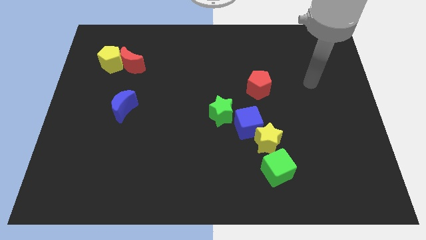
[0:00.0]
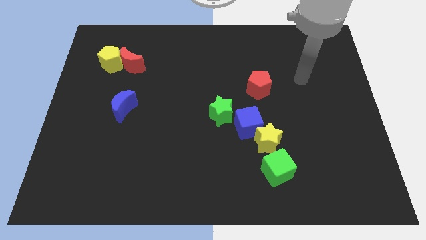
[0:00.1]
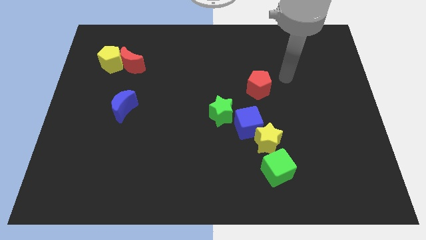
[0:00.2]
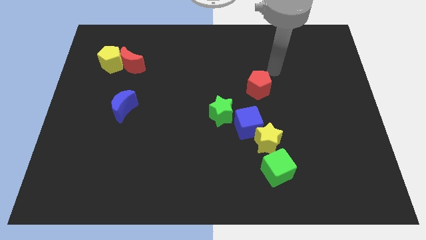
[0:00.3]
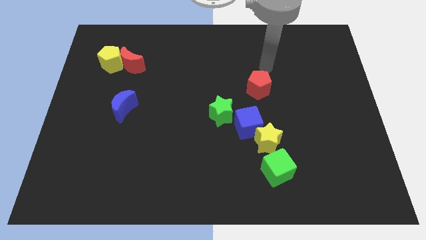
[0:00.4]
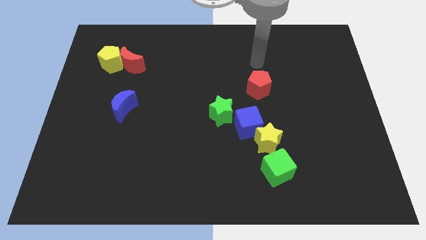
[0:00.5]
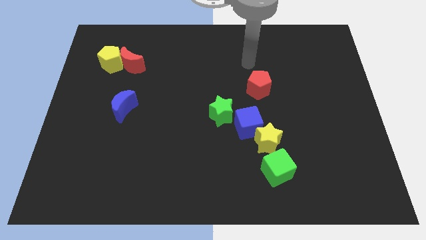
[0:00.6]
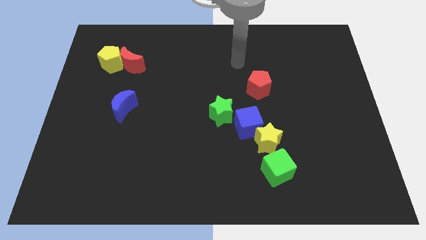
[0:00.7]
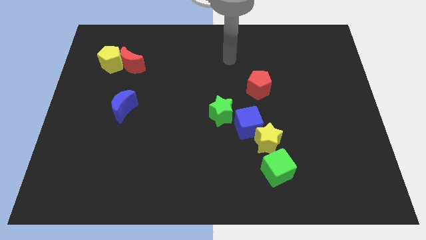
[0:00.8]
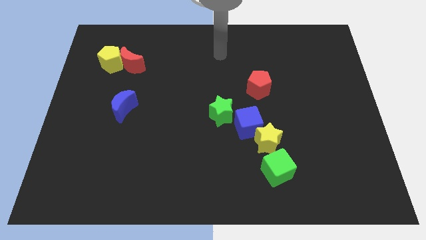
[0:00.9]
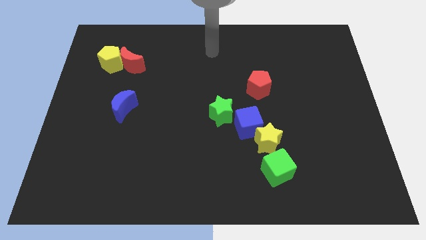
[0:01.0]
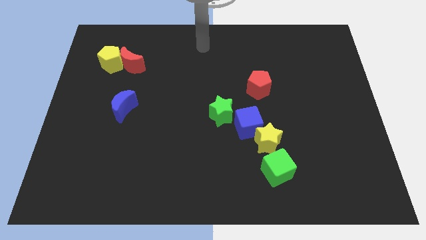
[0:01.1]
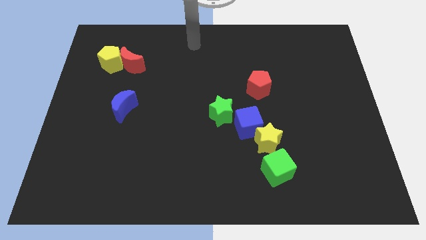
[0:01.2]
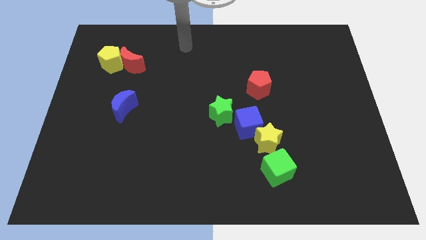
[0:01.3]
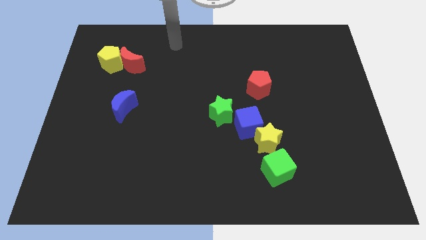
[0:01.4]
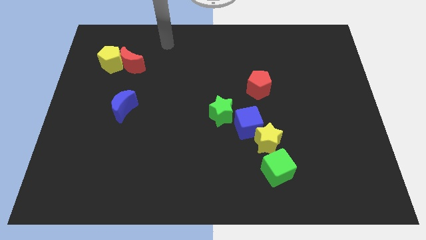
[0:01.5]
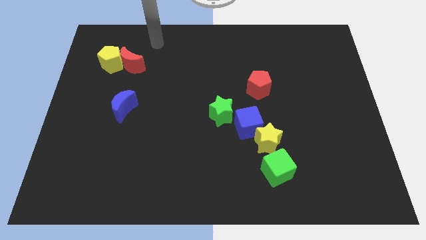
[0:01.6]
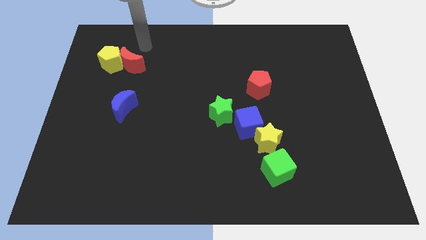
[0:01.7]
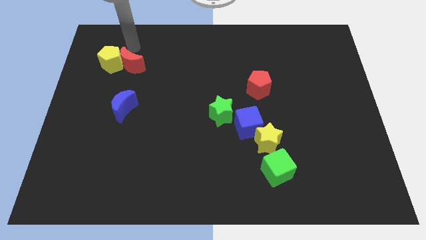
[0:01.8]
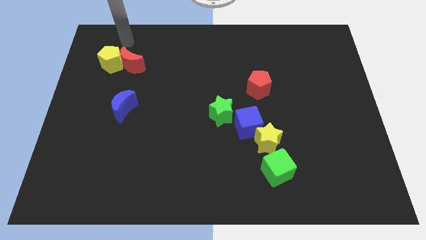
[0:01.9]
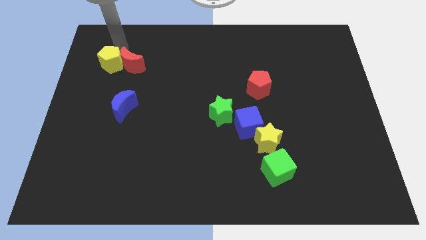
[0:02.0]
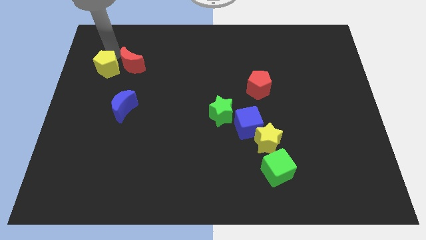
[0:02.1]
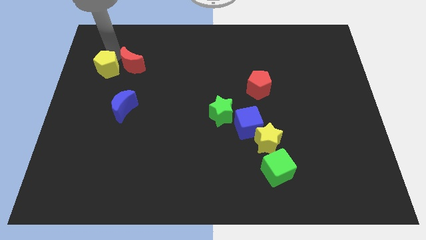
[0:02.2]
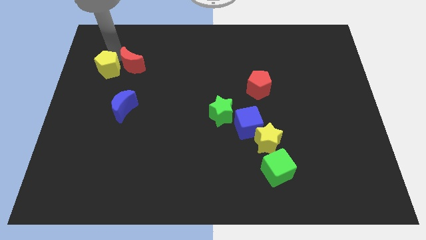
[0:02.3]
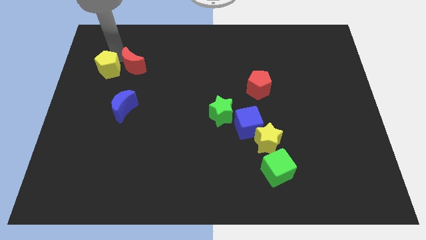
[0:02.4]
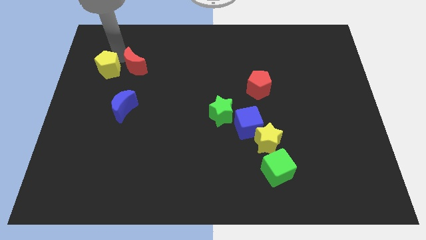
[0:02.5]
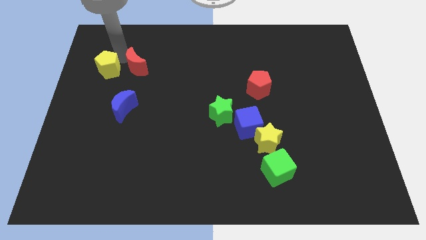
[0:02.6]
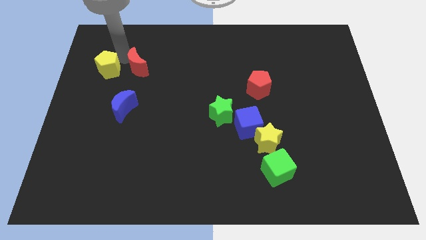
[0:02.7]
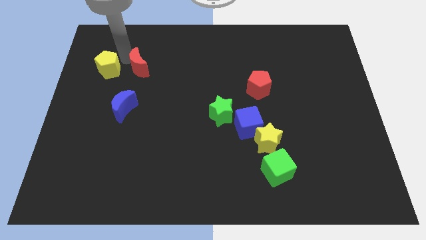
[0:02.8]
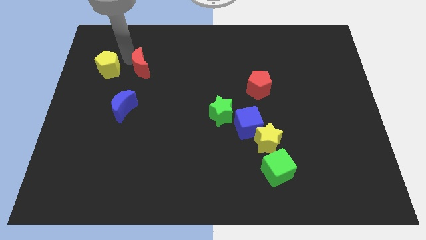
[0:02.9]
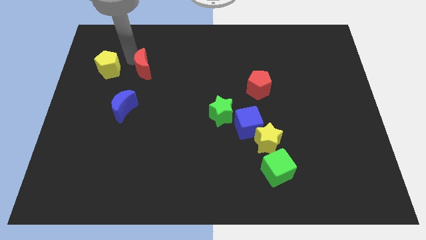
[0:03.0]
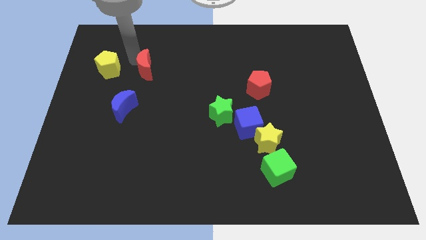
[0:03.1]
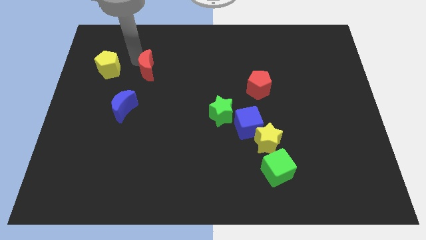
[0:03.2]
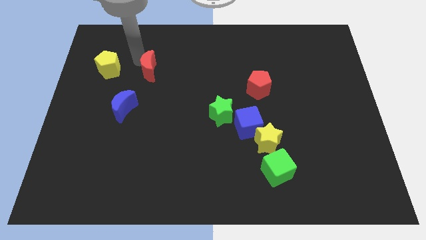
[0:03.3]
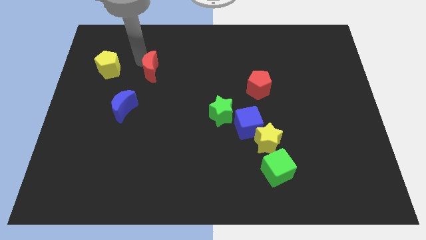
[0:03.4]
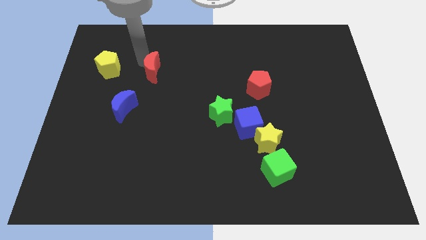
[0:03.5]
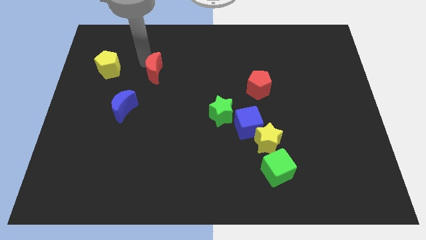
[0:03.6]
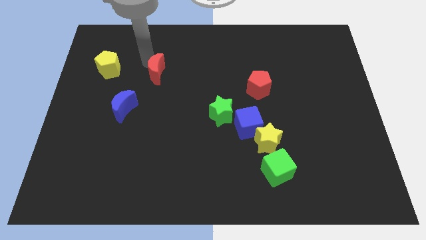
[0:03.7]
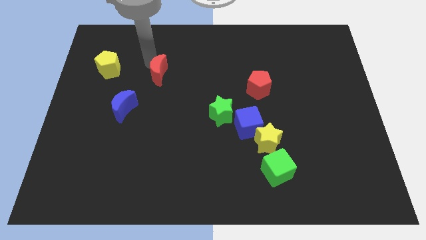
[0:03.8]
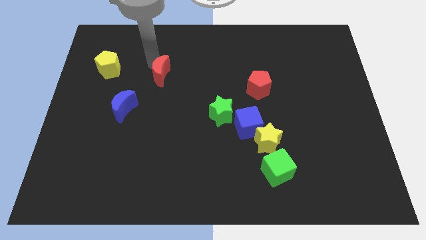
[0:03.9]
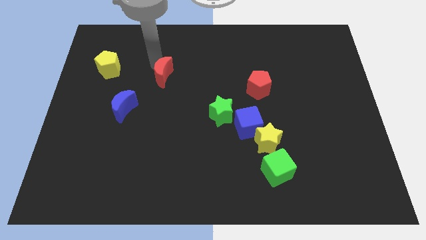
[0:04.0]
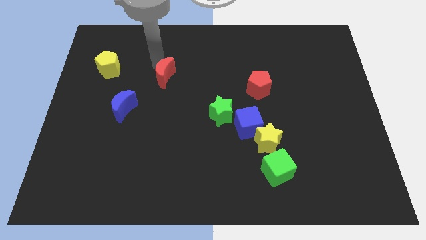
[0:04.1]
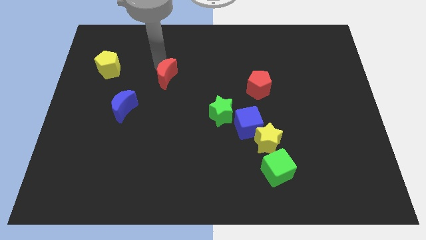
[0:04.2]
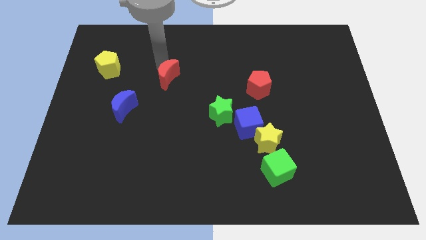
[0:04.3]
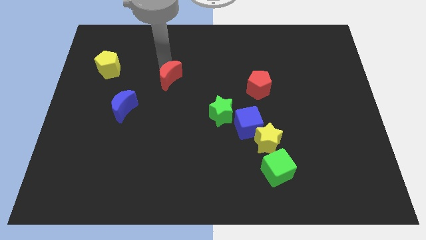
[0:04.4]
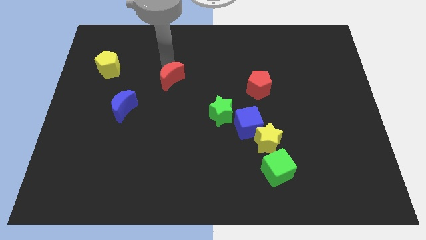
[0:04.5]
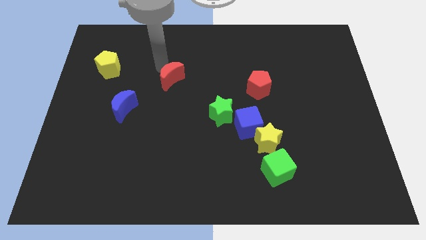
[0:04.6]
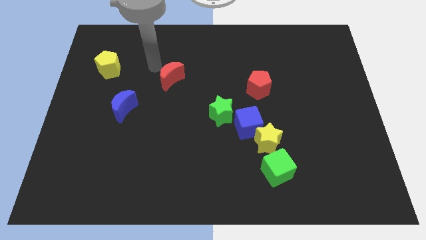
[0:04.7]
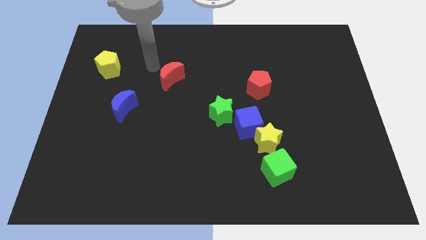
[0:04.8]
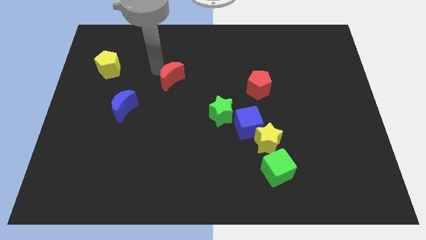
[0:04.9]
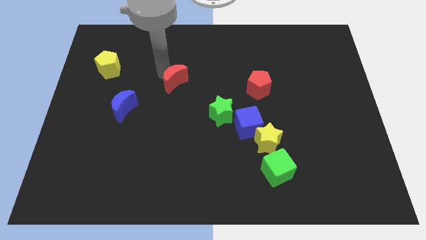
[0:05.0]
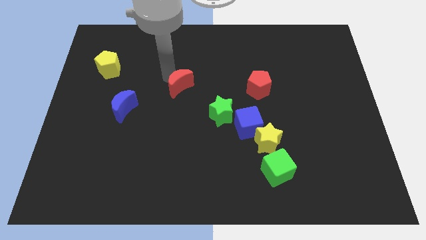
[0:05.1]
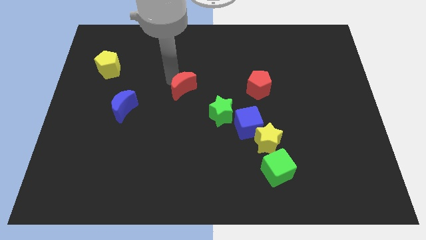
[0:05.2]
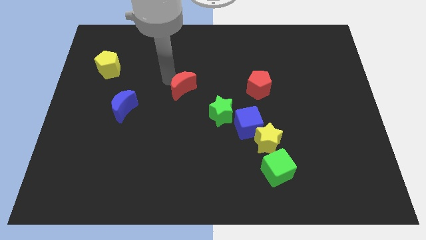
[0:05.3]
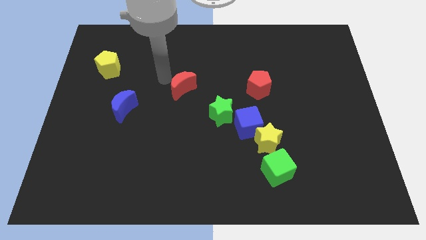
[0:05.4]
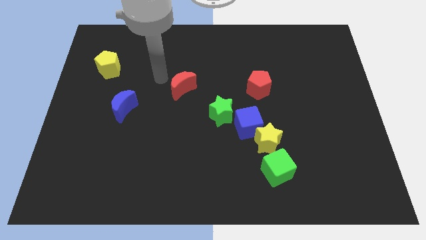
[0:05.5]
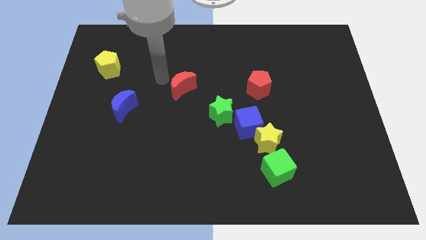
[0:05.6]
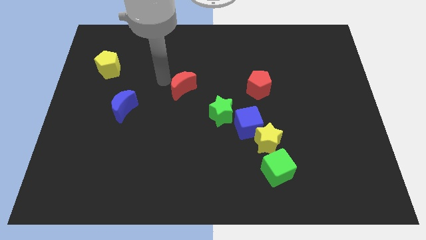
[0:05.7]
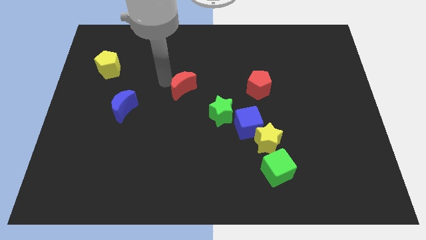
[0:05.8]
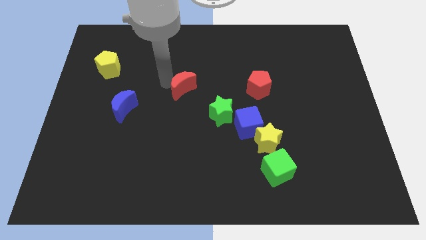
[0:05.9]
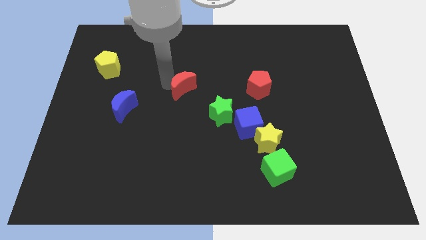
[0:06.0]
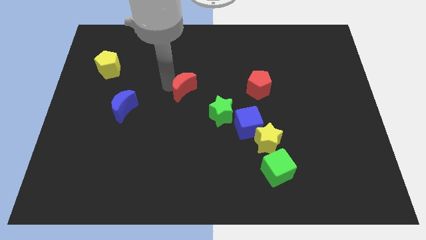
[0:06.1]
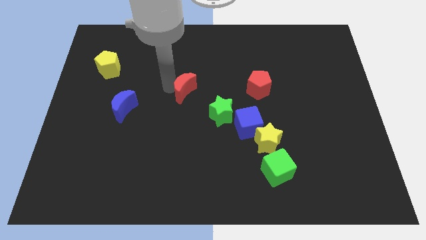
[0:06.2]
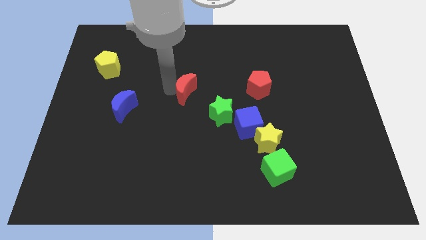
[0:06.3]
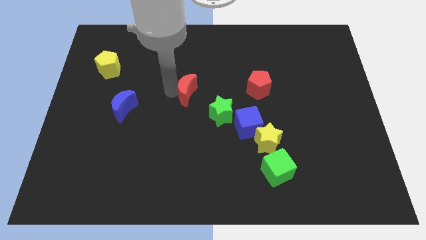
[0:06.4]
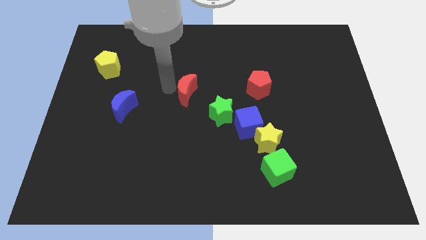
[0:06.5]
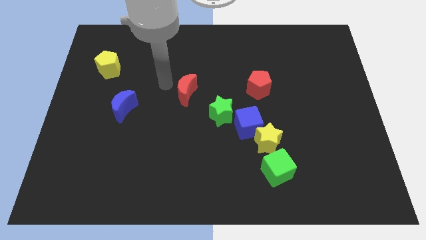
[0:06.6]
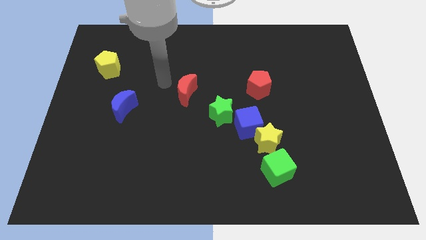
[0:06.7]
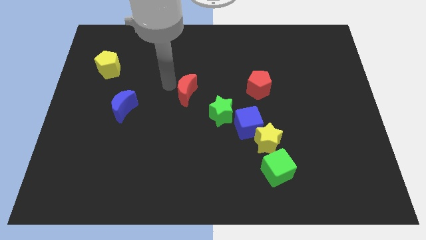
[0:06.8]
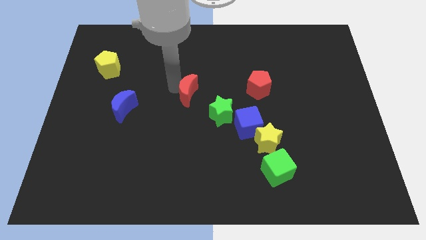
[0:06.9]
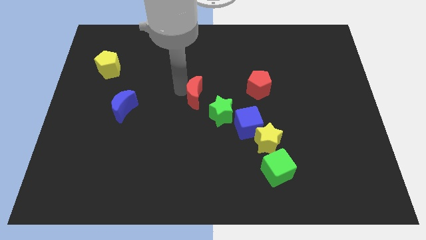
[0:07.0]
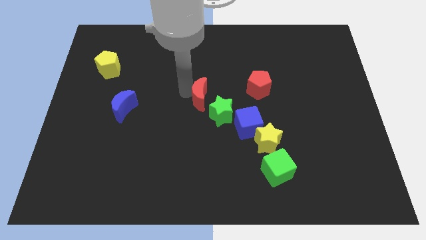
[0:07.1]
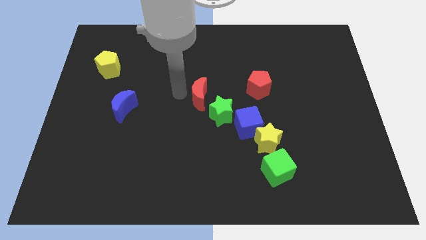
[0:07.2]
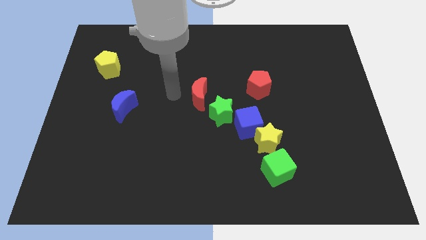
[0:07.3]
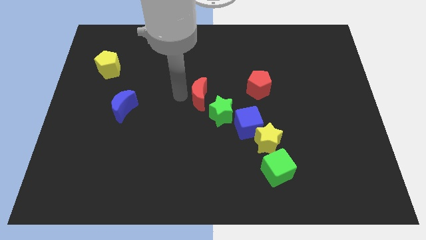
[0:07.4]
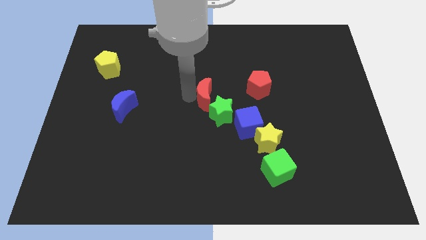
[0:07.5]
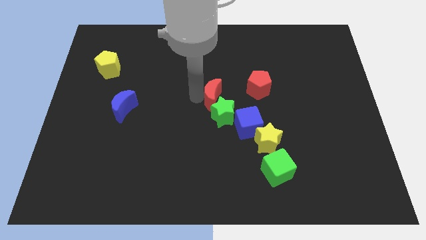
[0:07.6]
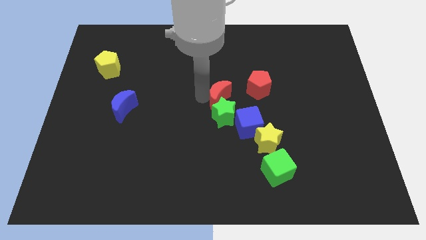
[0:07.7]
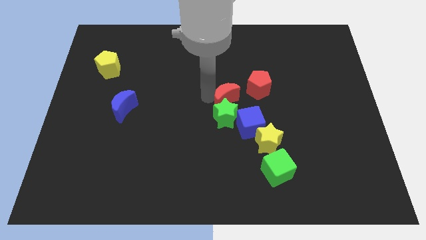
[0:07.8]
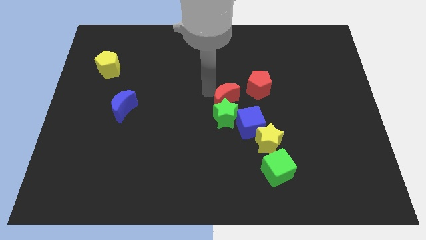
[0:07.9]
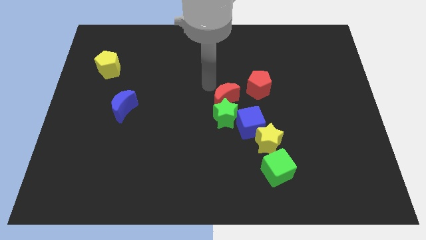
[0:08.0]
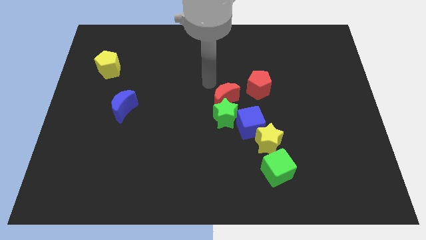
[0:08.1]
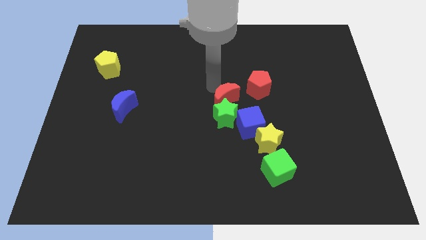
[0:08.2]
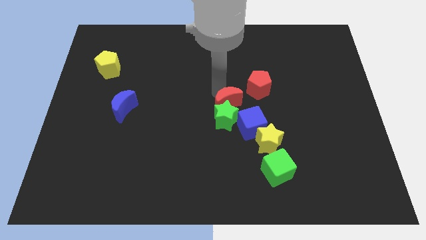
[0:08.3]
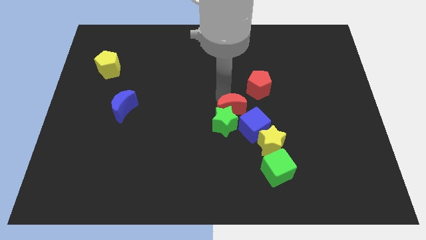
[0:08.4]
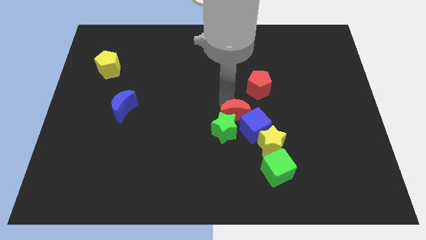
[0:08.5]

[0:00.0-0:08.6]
move the red moon towards the blue cube
